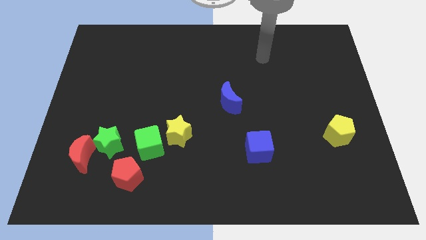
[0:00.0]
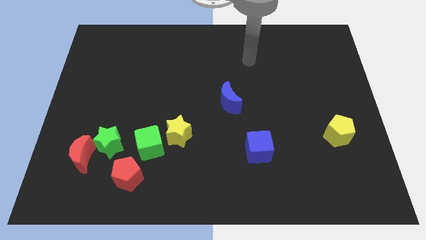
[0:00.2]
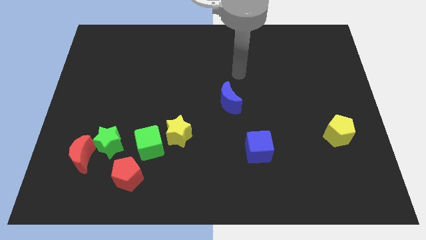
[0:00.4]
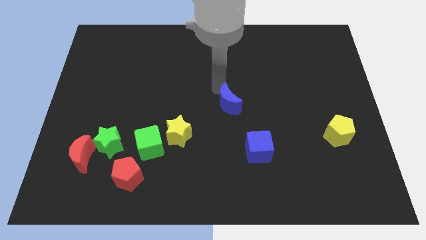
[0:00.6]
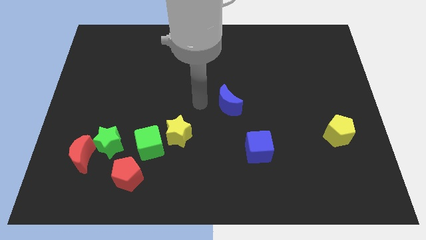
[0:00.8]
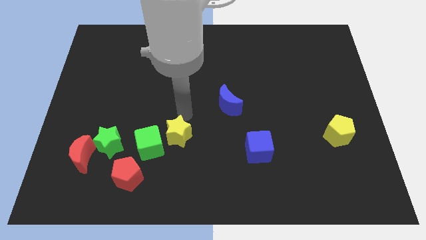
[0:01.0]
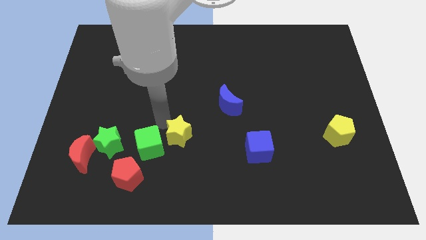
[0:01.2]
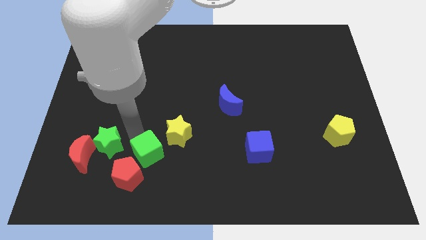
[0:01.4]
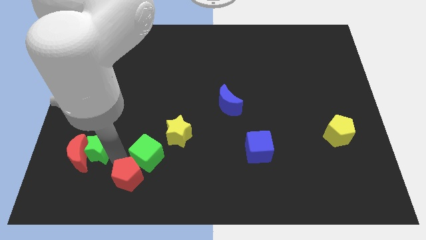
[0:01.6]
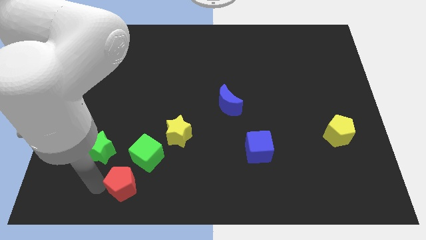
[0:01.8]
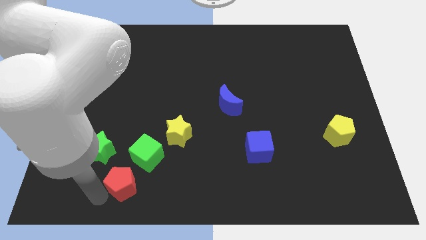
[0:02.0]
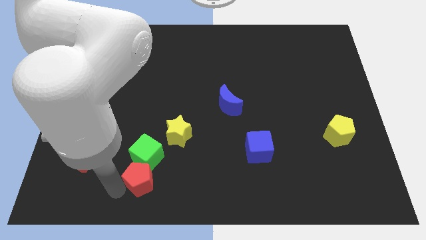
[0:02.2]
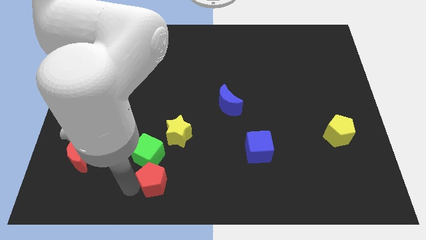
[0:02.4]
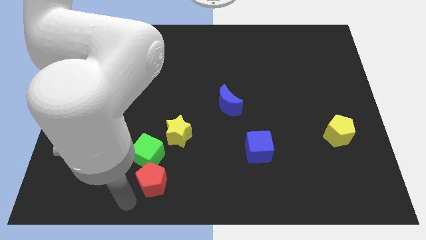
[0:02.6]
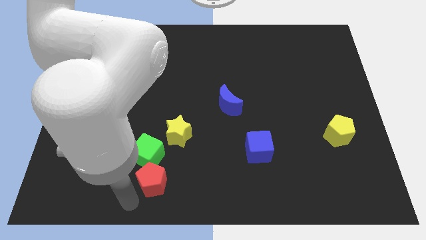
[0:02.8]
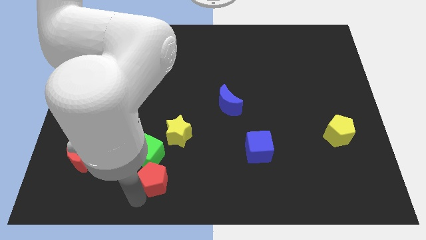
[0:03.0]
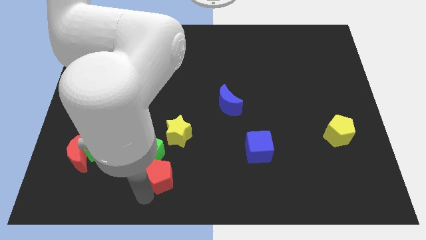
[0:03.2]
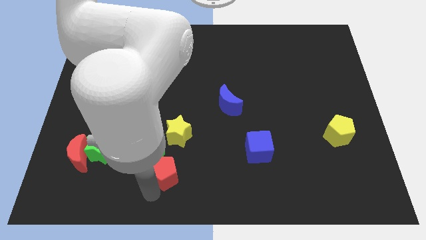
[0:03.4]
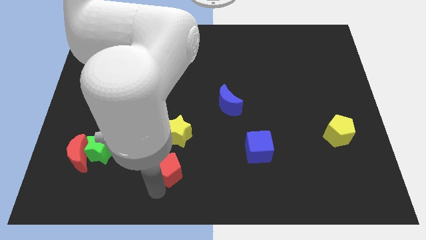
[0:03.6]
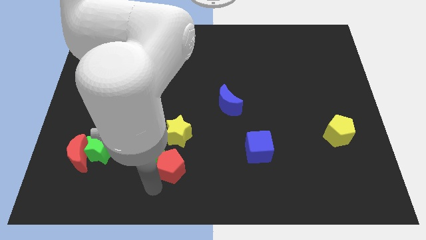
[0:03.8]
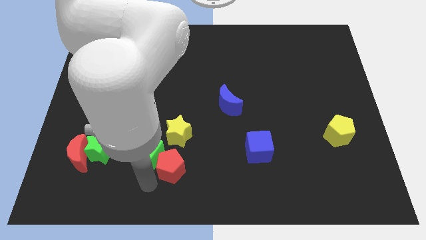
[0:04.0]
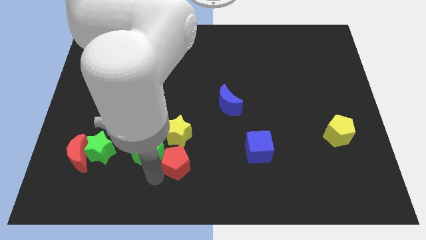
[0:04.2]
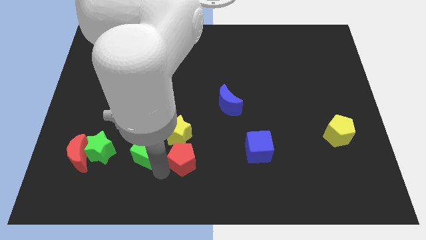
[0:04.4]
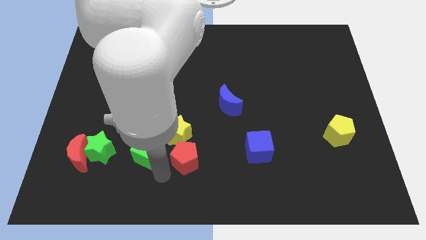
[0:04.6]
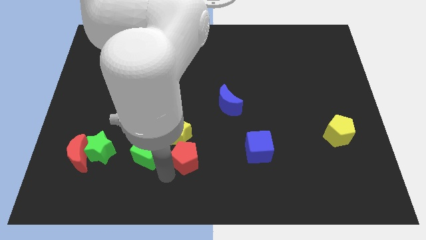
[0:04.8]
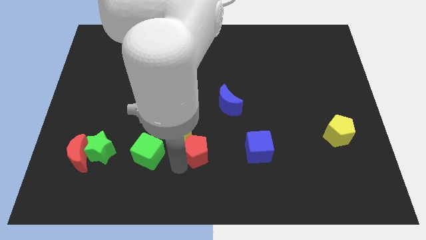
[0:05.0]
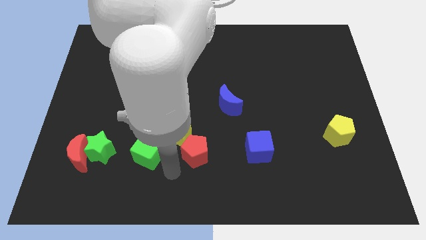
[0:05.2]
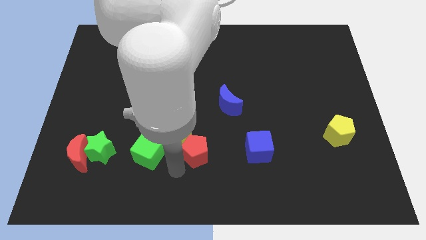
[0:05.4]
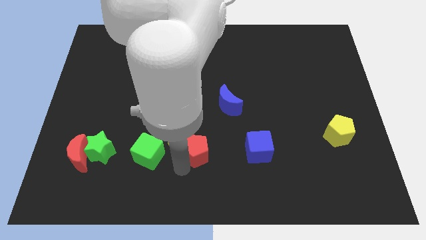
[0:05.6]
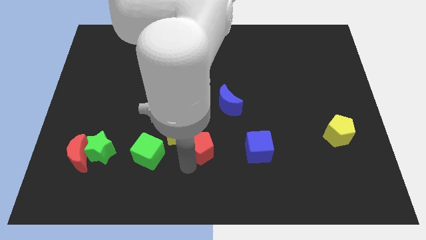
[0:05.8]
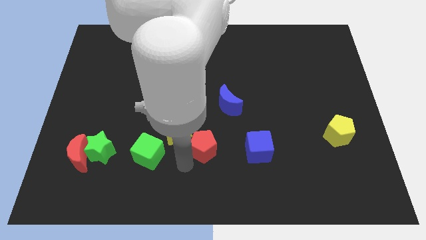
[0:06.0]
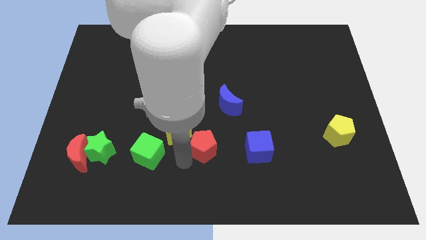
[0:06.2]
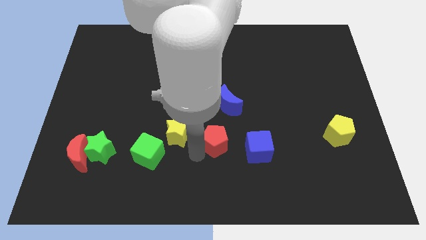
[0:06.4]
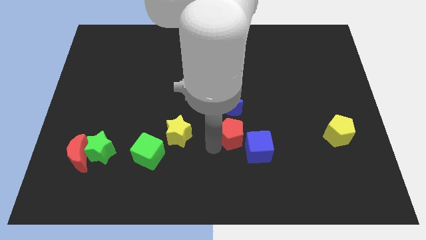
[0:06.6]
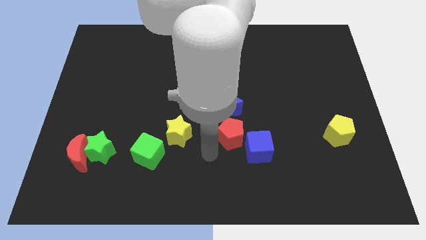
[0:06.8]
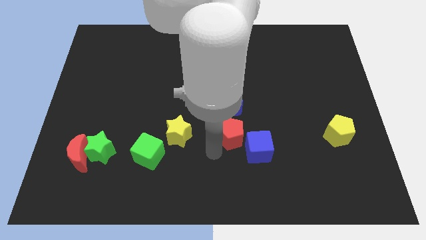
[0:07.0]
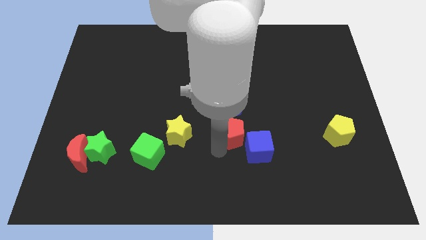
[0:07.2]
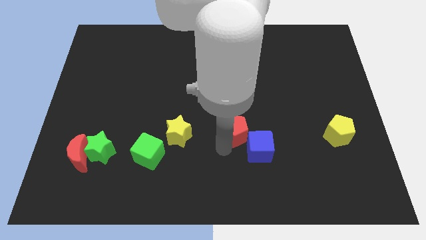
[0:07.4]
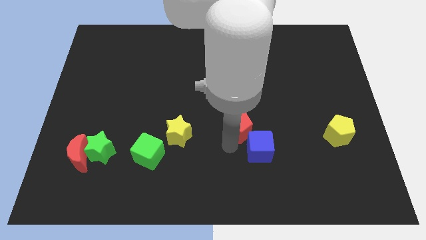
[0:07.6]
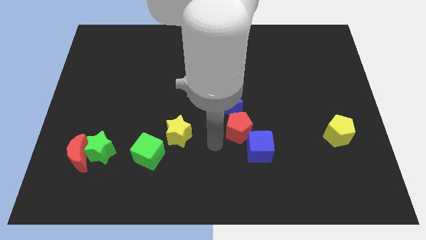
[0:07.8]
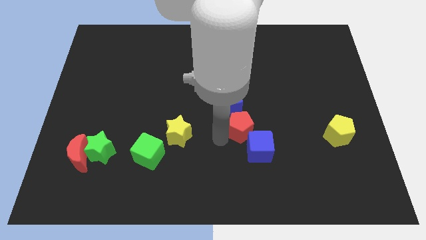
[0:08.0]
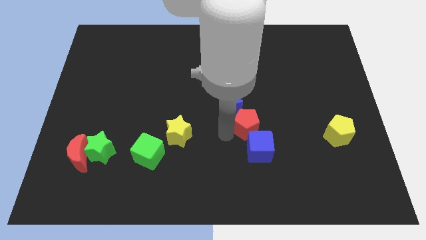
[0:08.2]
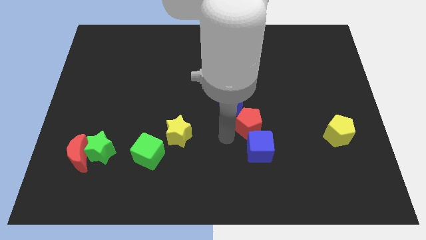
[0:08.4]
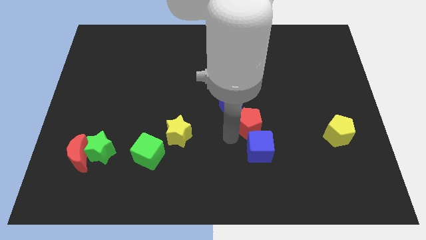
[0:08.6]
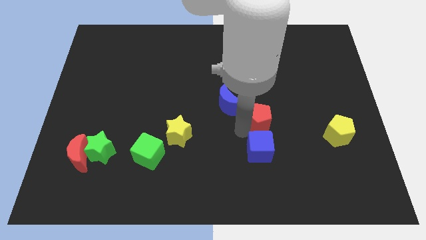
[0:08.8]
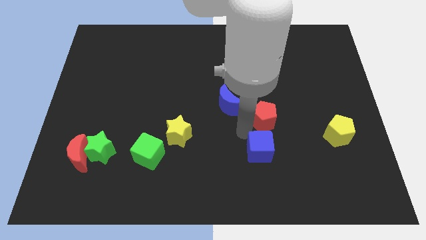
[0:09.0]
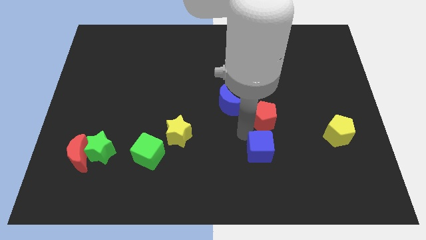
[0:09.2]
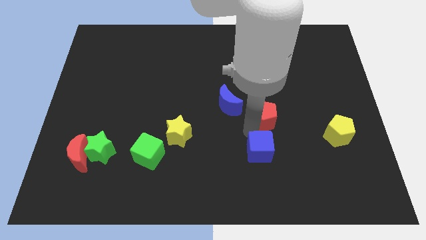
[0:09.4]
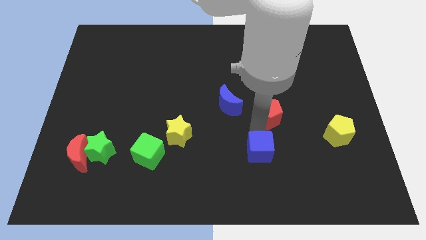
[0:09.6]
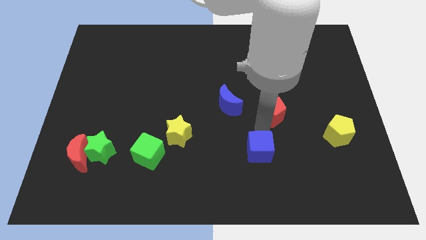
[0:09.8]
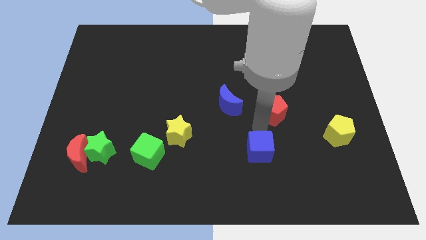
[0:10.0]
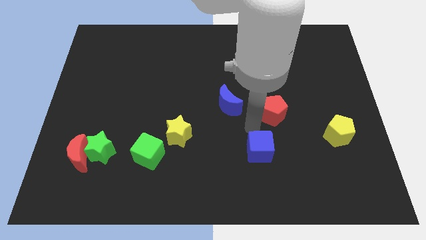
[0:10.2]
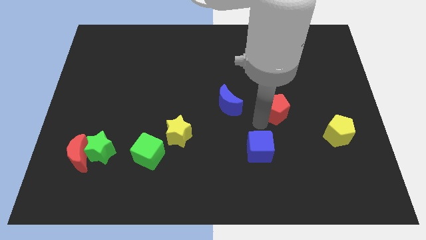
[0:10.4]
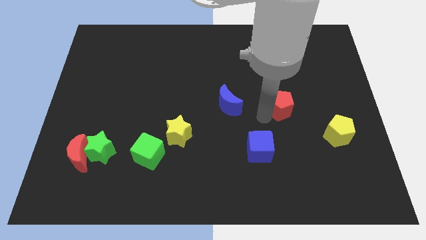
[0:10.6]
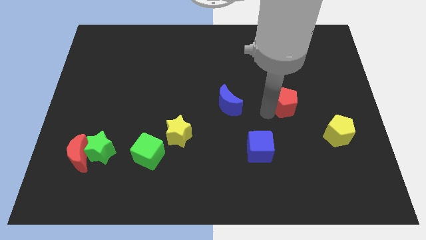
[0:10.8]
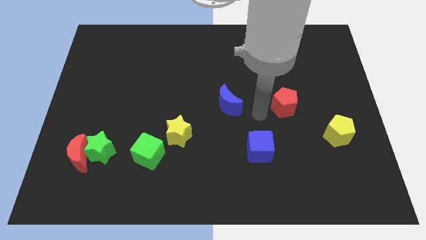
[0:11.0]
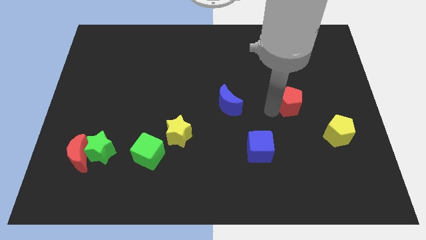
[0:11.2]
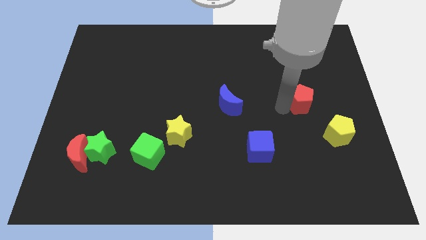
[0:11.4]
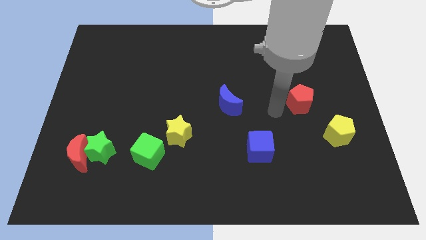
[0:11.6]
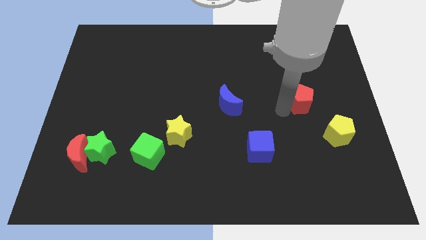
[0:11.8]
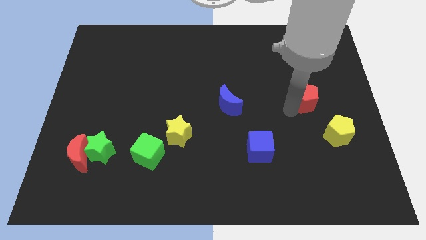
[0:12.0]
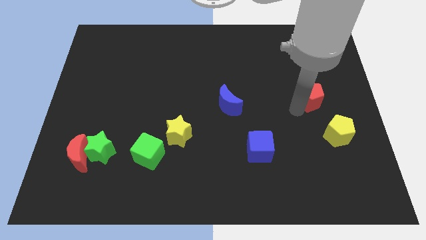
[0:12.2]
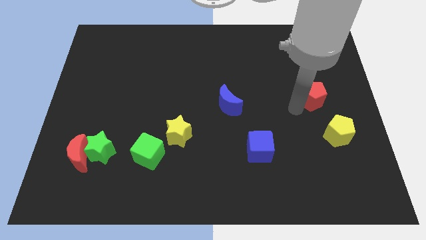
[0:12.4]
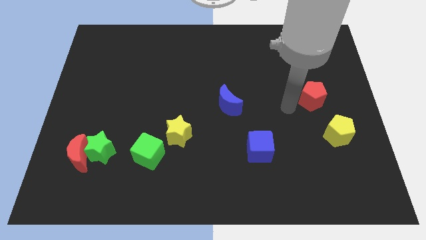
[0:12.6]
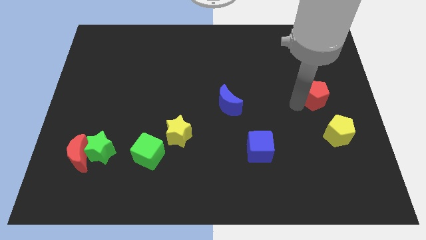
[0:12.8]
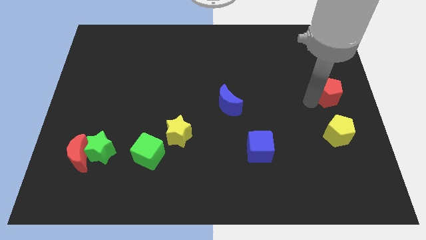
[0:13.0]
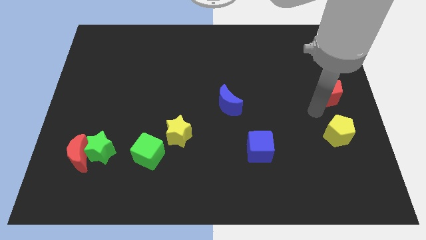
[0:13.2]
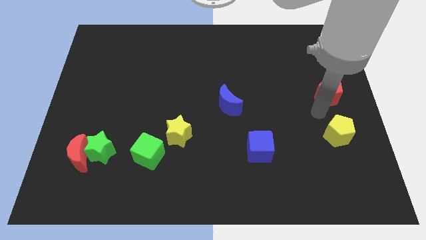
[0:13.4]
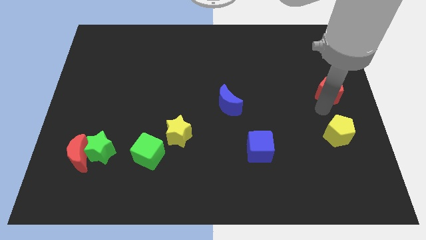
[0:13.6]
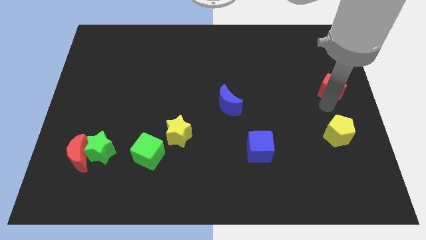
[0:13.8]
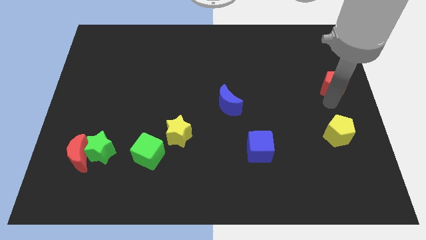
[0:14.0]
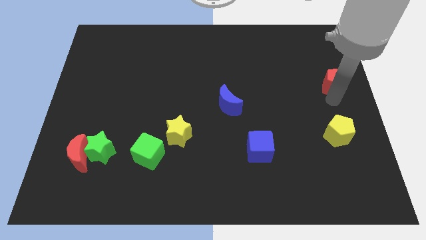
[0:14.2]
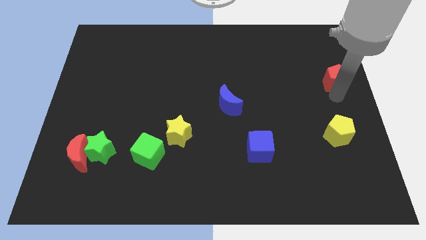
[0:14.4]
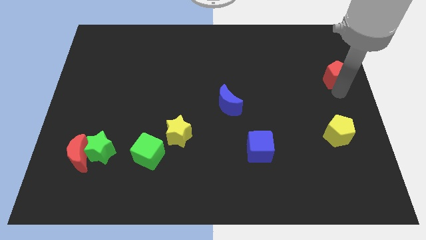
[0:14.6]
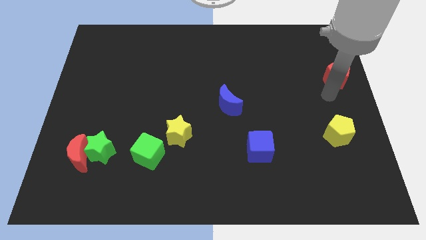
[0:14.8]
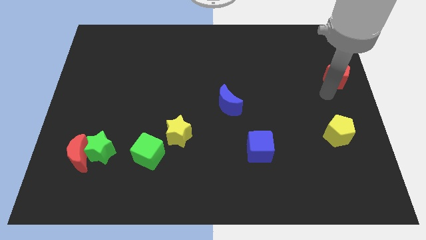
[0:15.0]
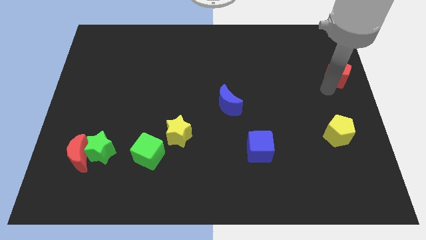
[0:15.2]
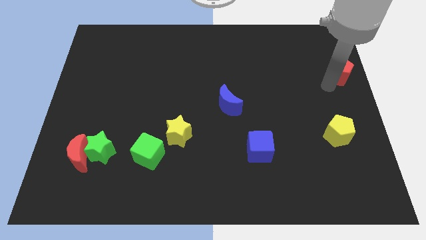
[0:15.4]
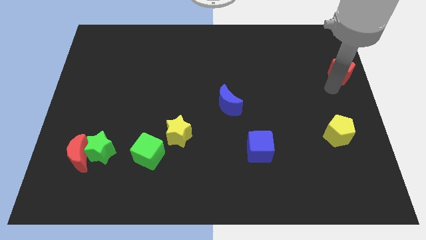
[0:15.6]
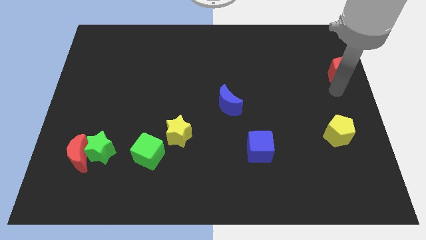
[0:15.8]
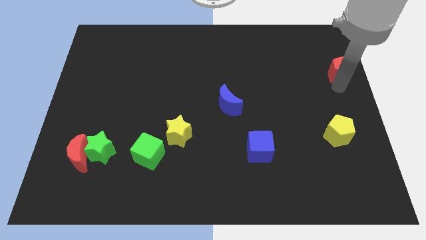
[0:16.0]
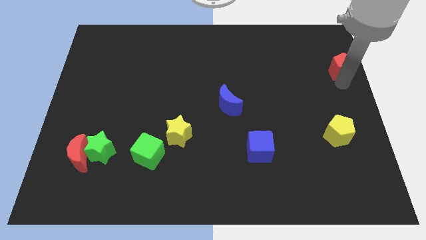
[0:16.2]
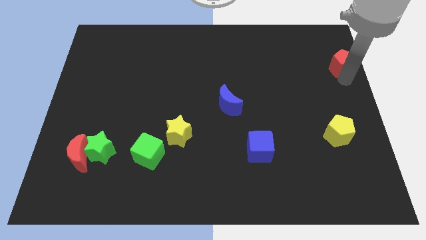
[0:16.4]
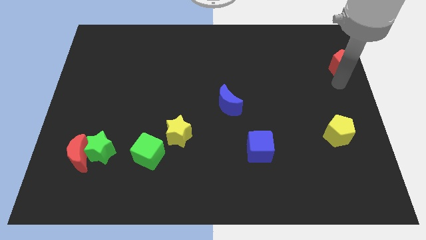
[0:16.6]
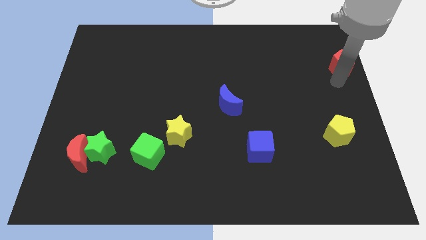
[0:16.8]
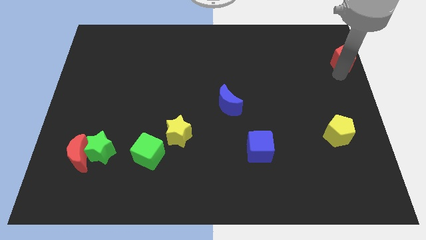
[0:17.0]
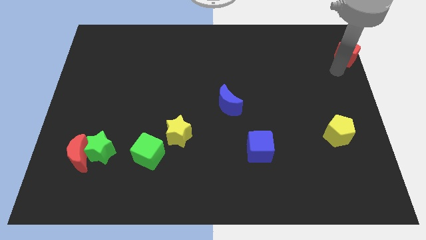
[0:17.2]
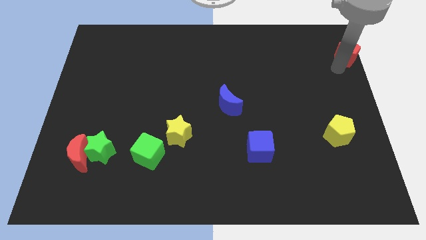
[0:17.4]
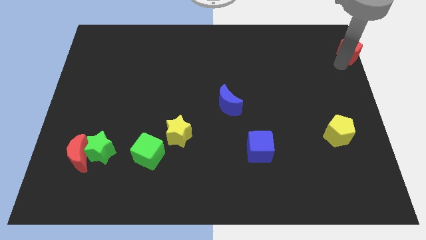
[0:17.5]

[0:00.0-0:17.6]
move the red pentagon to the top right
